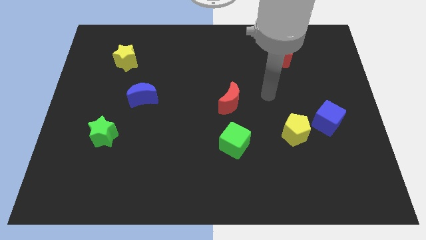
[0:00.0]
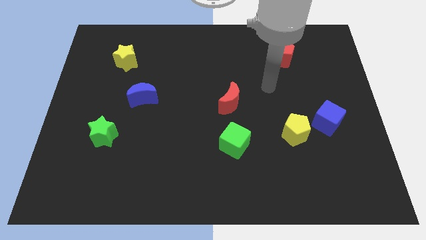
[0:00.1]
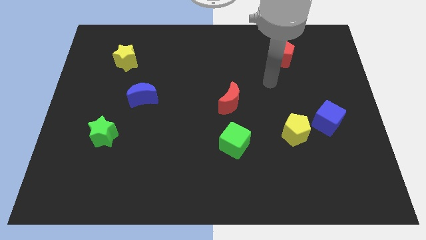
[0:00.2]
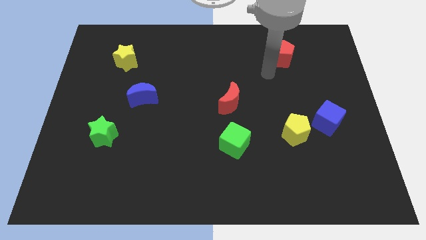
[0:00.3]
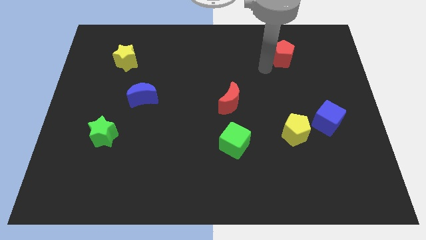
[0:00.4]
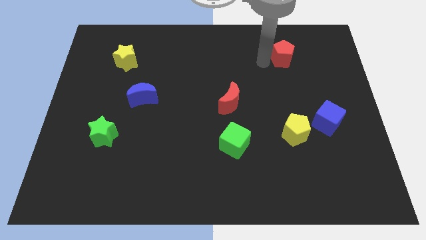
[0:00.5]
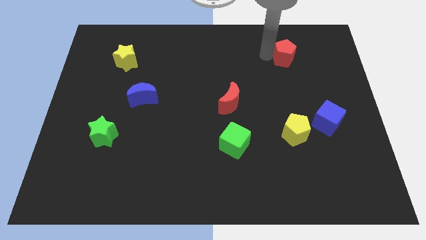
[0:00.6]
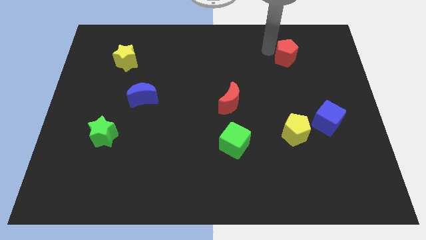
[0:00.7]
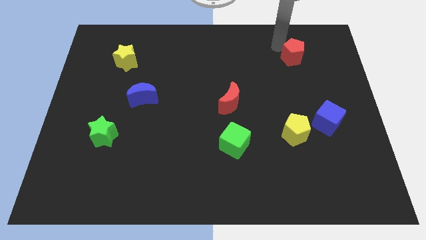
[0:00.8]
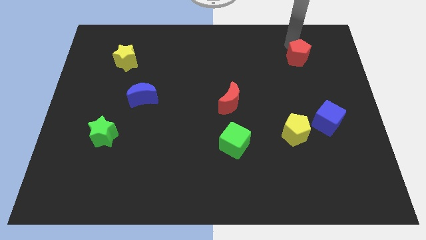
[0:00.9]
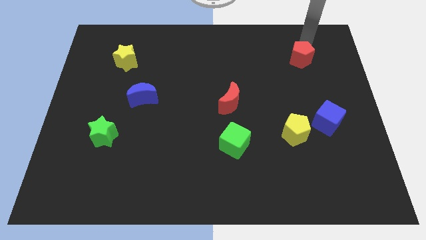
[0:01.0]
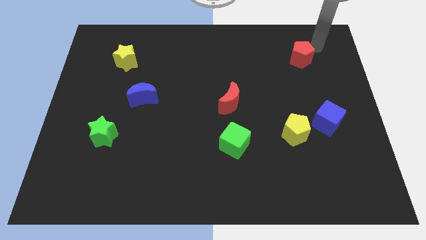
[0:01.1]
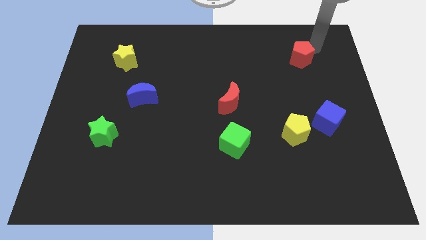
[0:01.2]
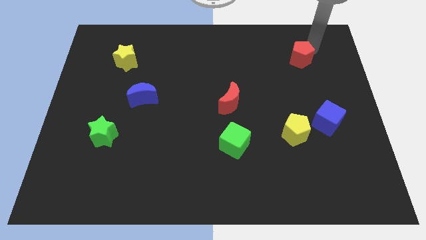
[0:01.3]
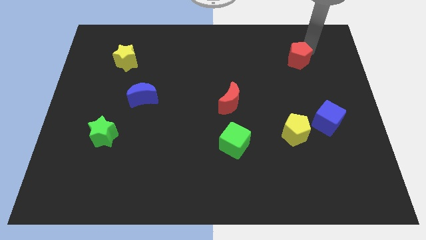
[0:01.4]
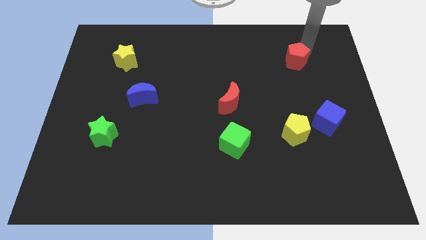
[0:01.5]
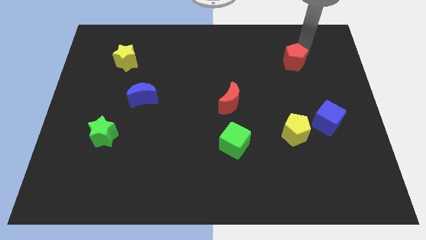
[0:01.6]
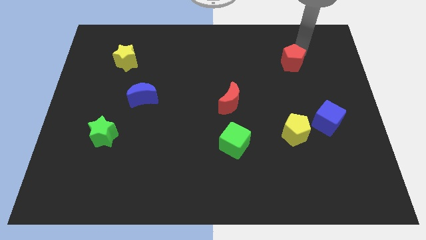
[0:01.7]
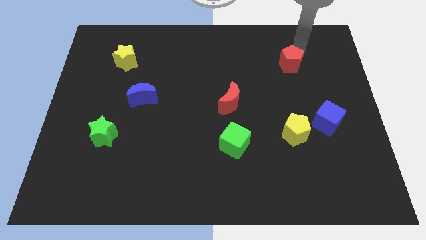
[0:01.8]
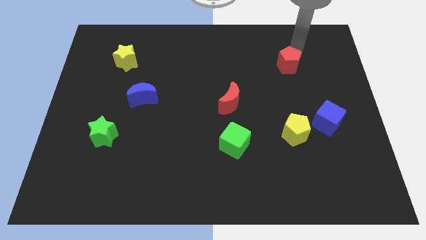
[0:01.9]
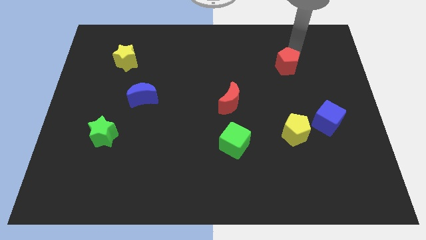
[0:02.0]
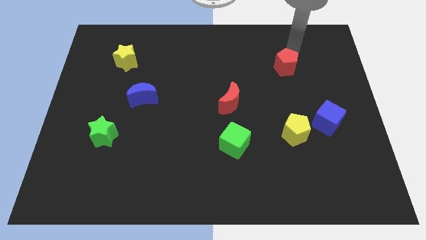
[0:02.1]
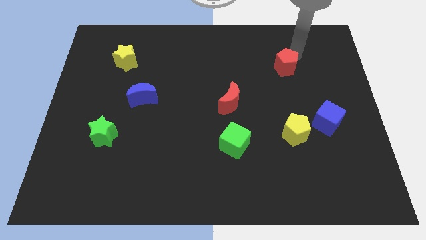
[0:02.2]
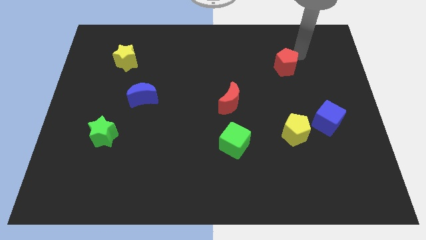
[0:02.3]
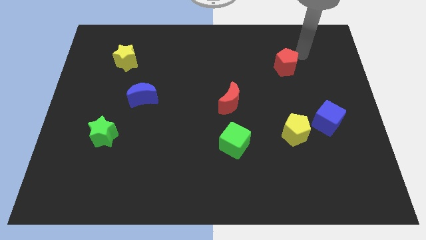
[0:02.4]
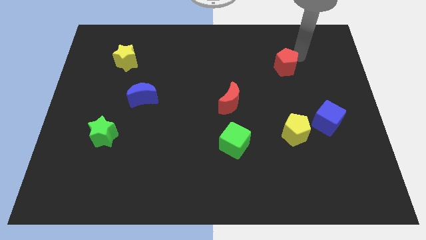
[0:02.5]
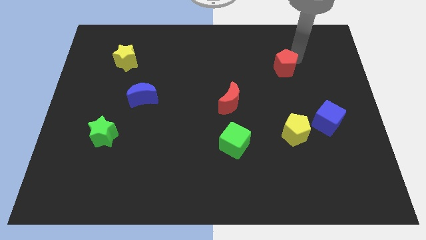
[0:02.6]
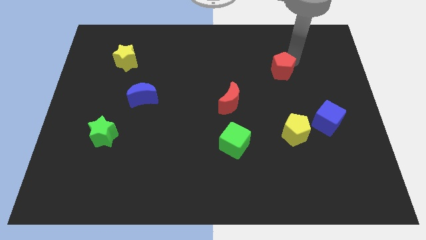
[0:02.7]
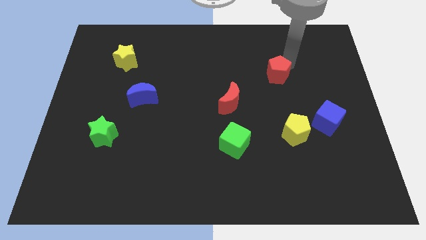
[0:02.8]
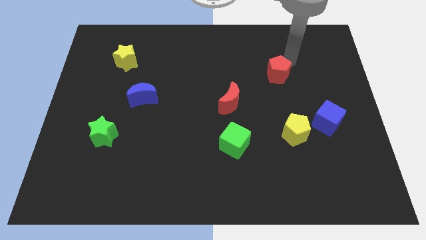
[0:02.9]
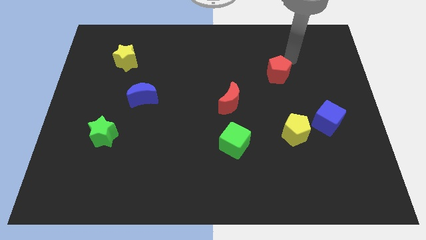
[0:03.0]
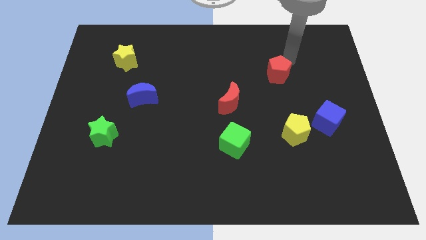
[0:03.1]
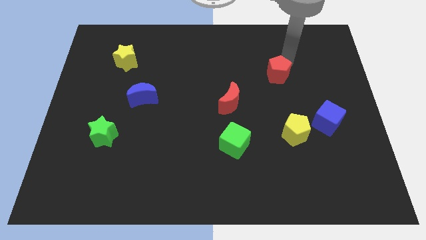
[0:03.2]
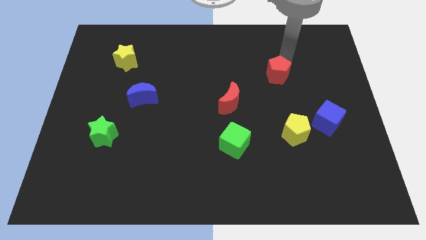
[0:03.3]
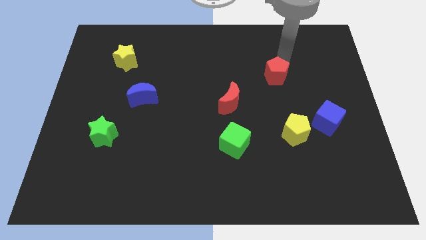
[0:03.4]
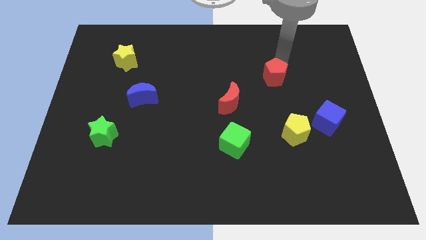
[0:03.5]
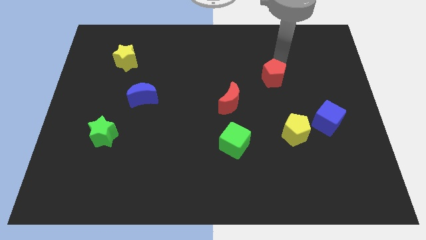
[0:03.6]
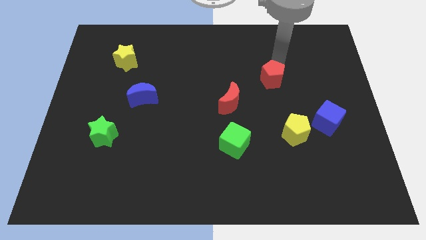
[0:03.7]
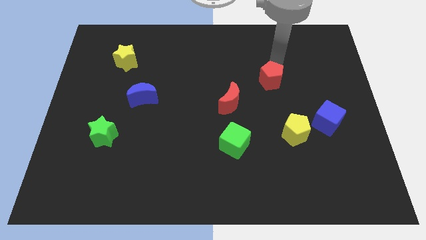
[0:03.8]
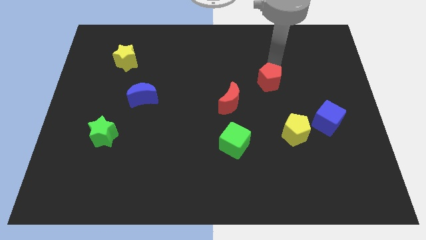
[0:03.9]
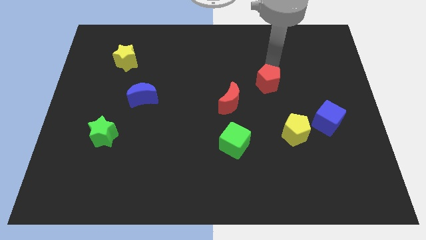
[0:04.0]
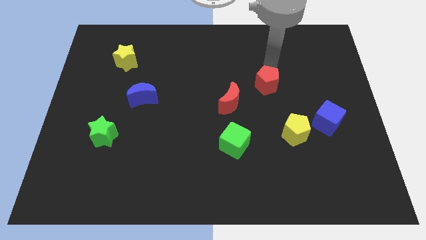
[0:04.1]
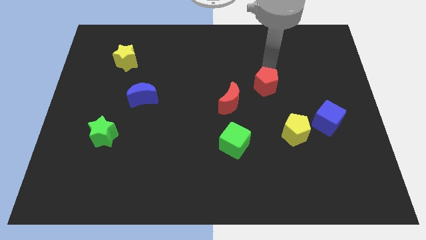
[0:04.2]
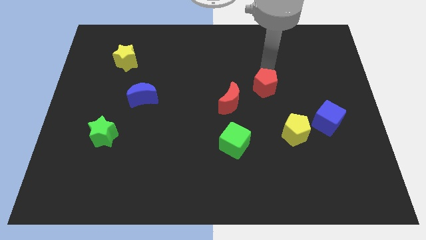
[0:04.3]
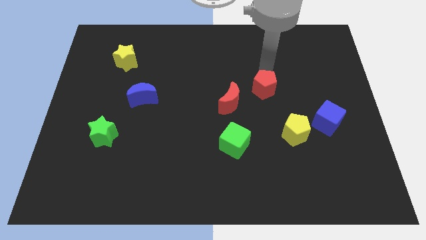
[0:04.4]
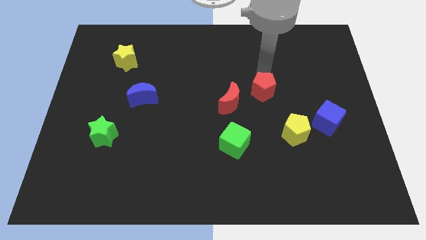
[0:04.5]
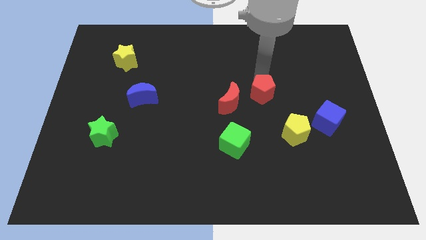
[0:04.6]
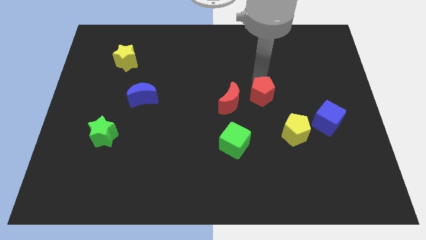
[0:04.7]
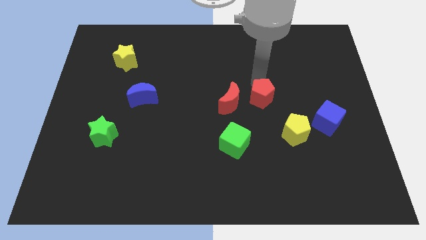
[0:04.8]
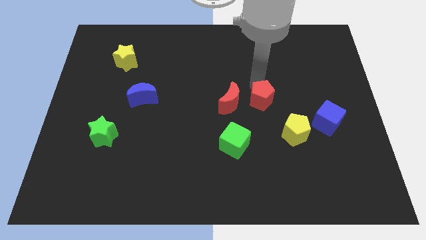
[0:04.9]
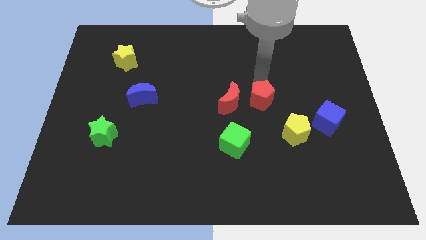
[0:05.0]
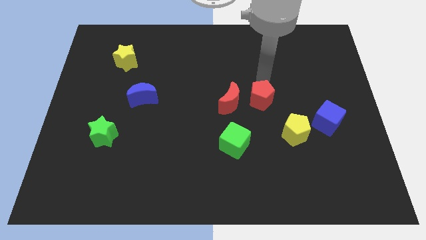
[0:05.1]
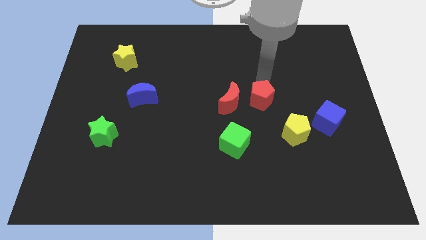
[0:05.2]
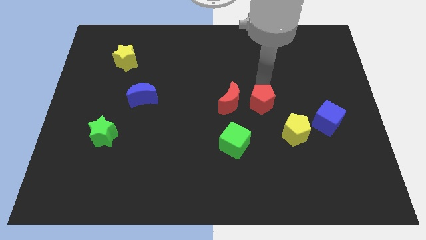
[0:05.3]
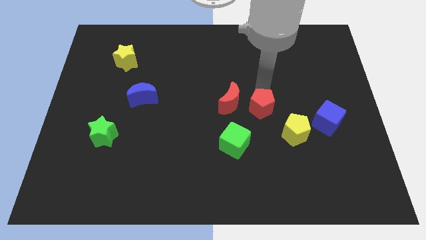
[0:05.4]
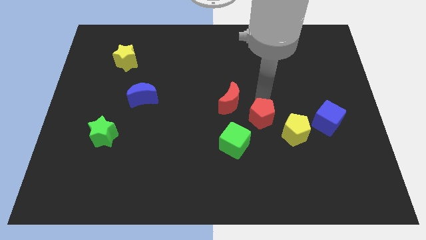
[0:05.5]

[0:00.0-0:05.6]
push the red pentagon to the left of the yellow pentagon

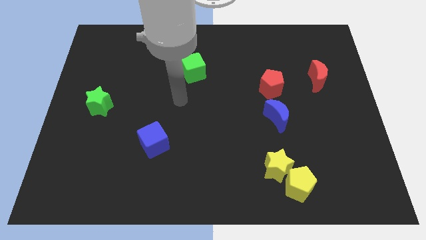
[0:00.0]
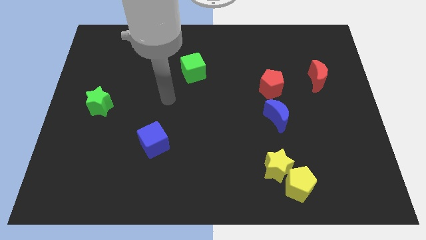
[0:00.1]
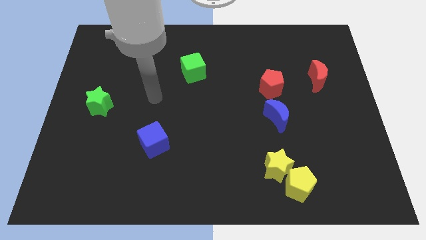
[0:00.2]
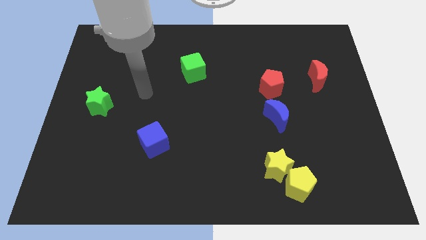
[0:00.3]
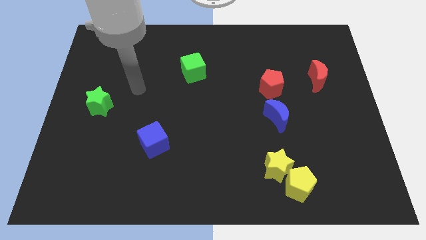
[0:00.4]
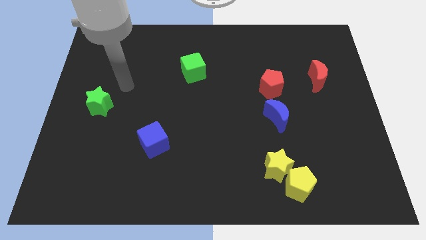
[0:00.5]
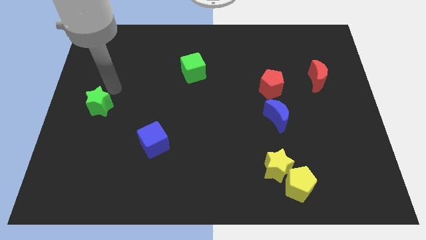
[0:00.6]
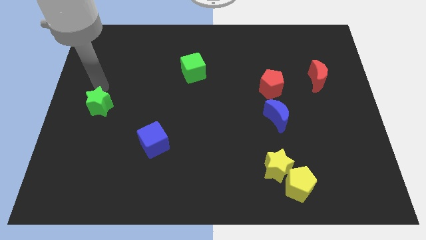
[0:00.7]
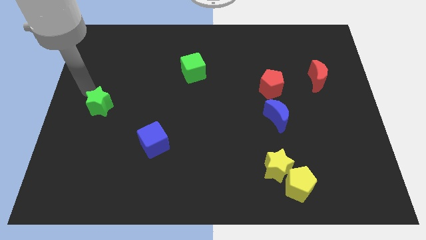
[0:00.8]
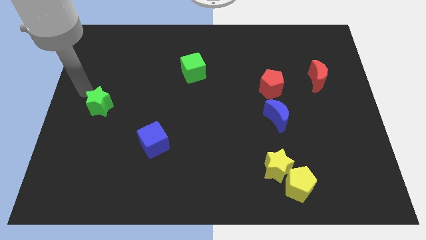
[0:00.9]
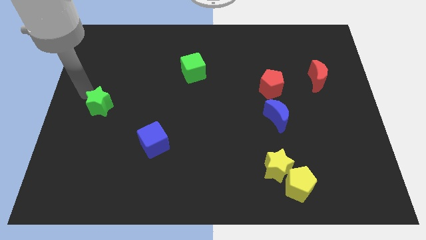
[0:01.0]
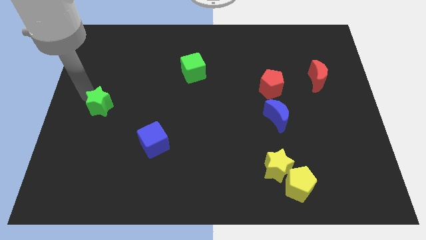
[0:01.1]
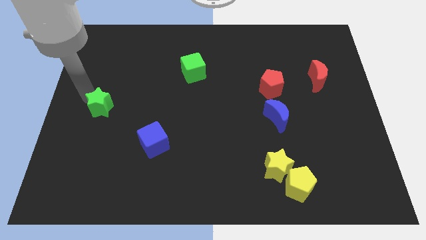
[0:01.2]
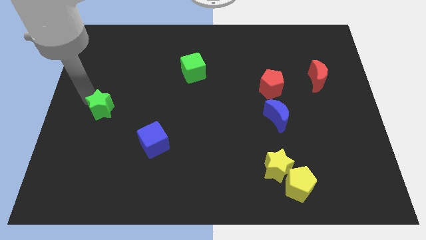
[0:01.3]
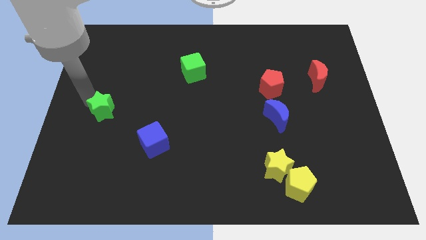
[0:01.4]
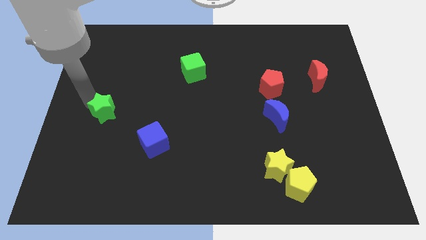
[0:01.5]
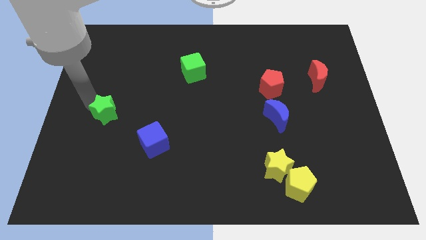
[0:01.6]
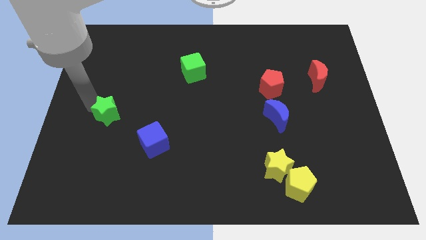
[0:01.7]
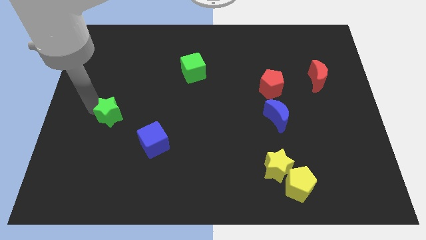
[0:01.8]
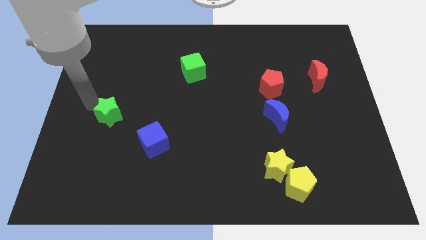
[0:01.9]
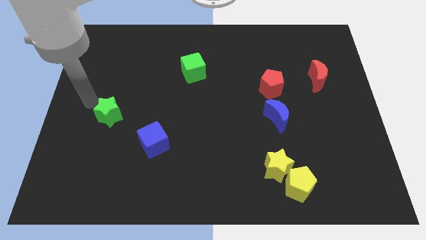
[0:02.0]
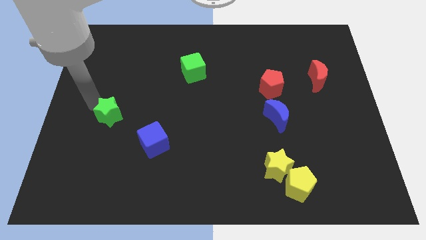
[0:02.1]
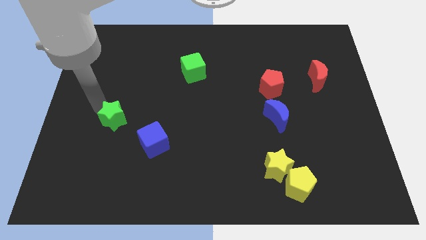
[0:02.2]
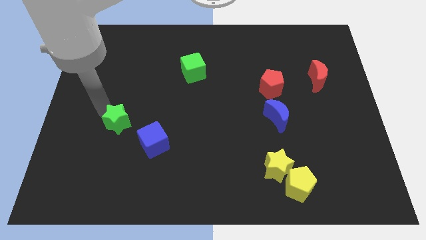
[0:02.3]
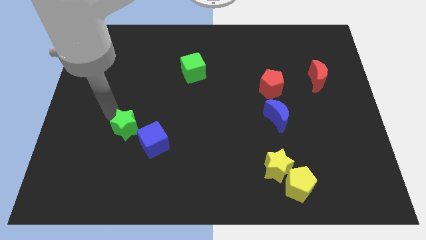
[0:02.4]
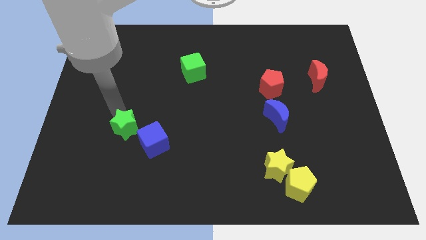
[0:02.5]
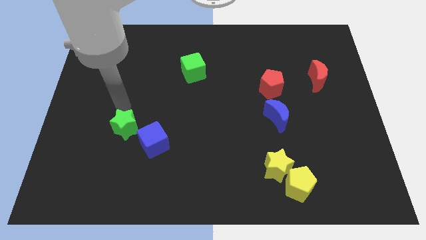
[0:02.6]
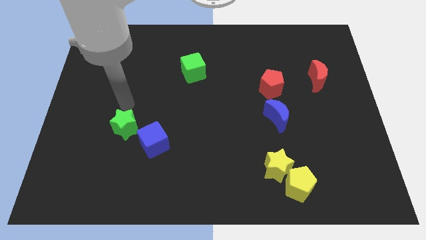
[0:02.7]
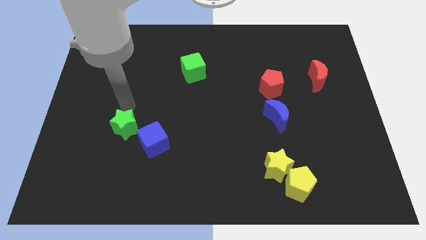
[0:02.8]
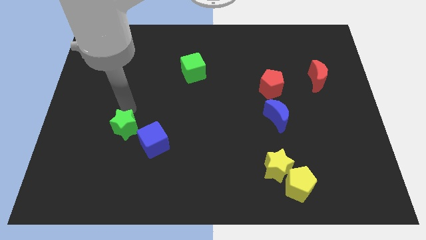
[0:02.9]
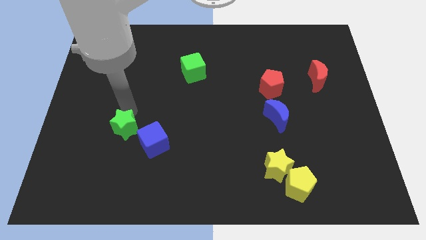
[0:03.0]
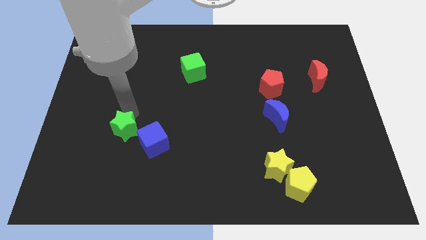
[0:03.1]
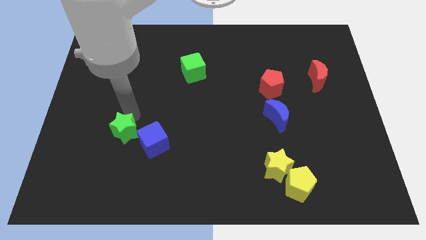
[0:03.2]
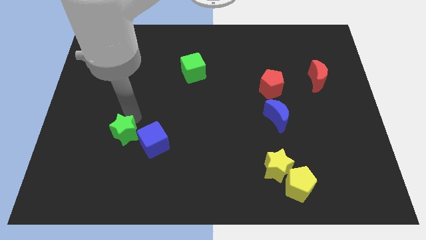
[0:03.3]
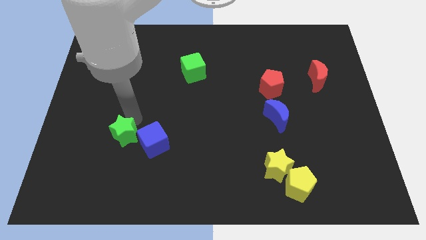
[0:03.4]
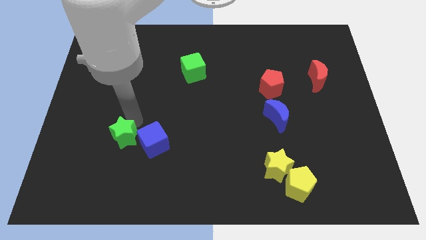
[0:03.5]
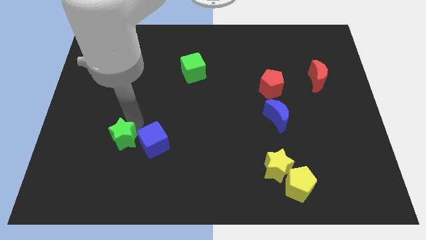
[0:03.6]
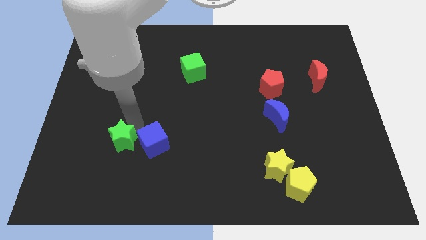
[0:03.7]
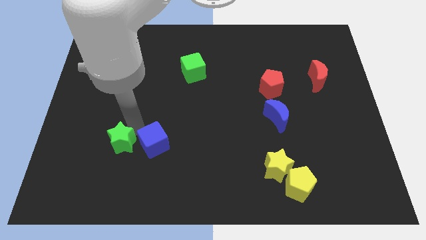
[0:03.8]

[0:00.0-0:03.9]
slide the green star to the bottom left of the blue cube
